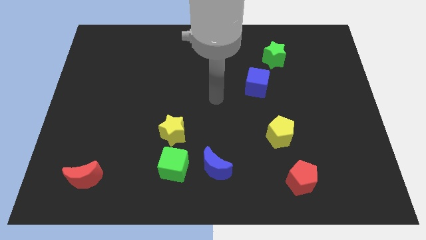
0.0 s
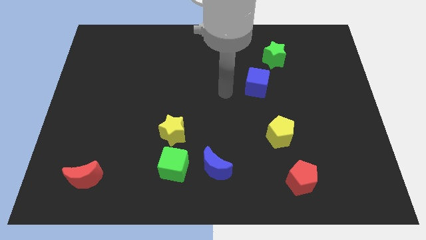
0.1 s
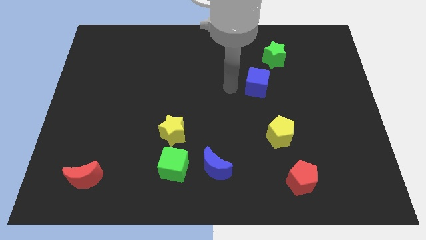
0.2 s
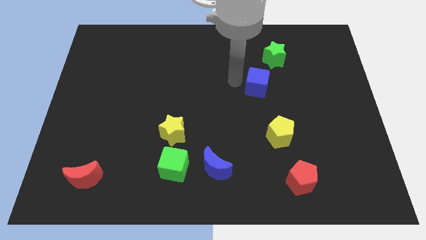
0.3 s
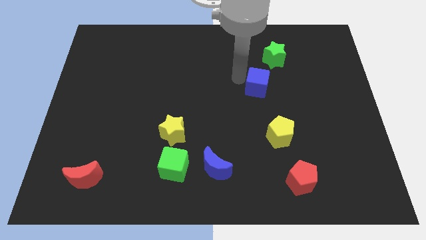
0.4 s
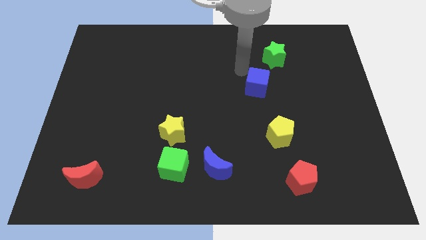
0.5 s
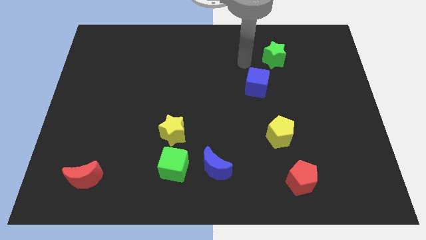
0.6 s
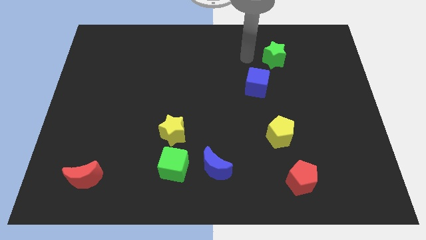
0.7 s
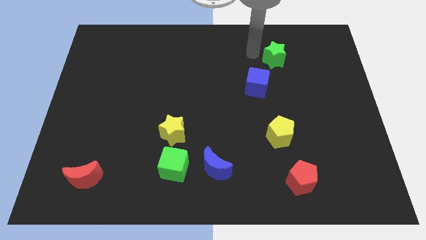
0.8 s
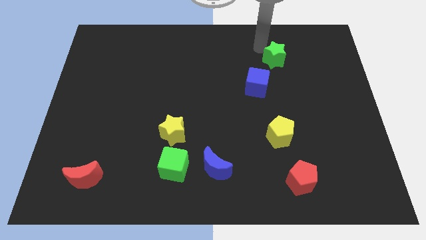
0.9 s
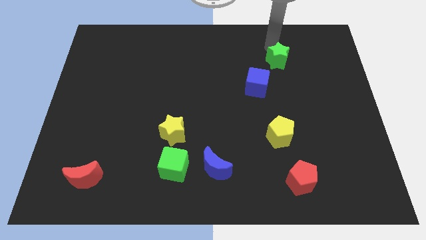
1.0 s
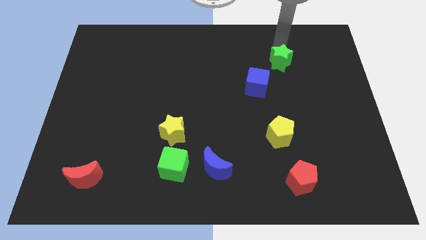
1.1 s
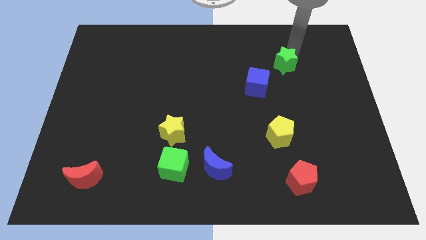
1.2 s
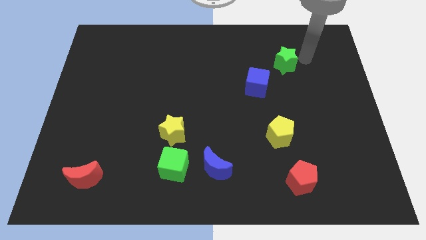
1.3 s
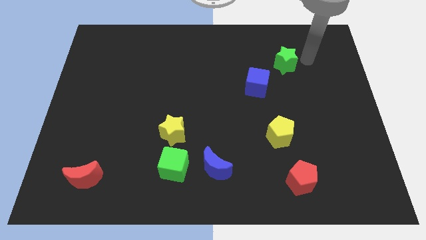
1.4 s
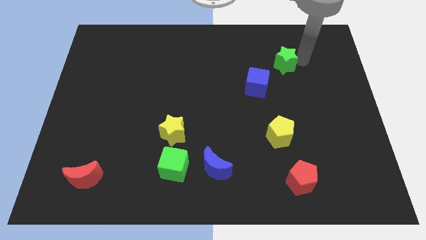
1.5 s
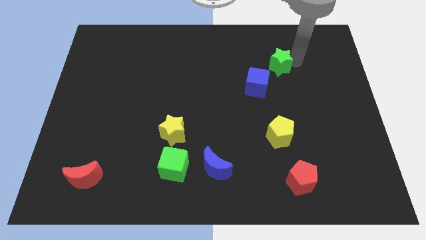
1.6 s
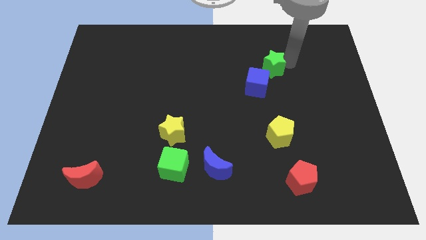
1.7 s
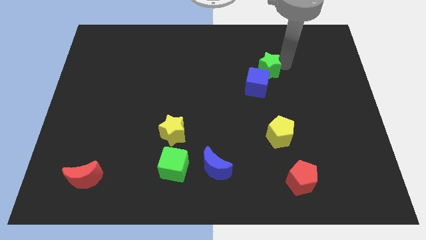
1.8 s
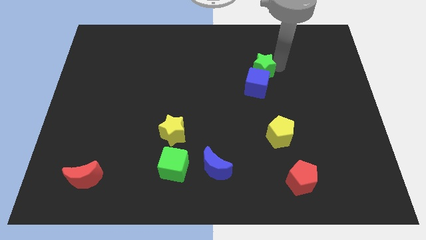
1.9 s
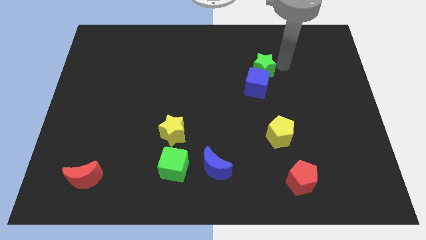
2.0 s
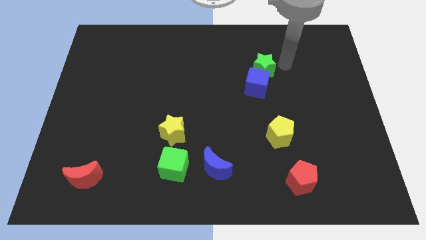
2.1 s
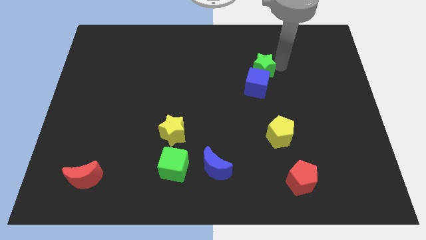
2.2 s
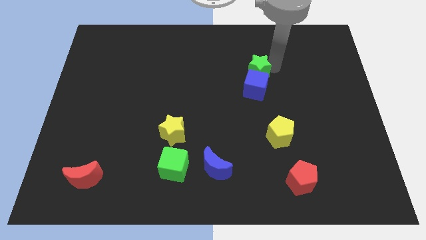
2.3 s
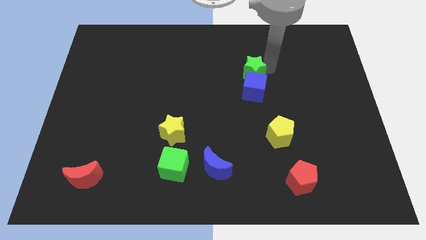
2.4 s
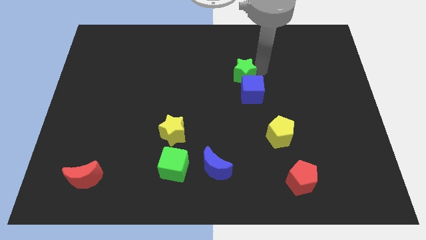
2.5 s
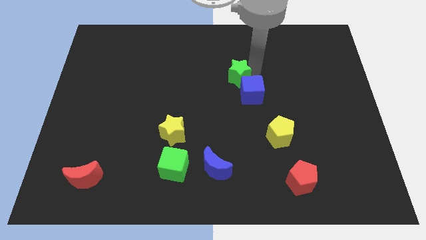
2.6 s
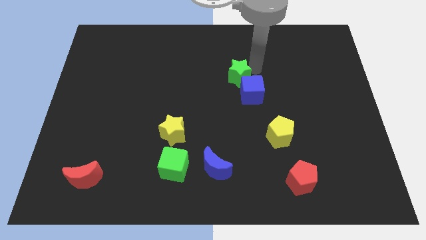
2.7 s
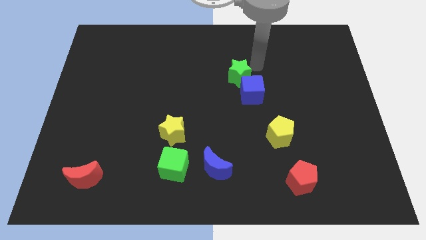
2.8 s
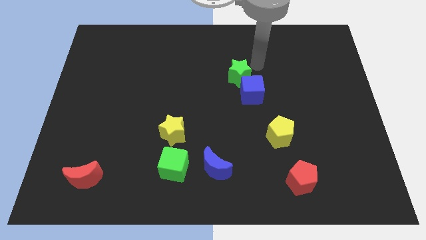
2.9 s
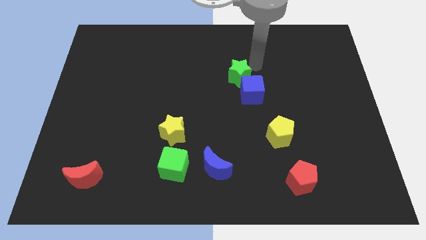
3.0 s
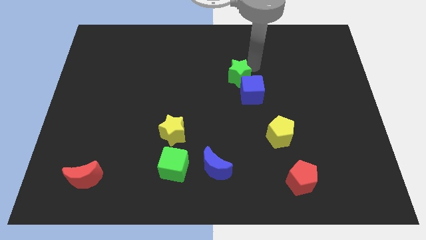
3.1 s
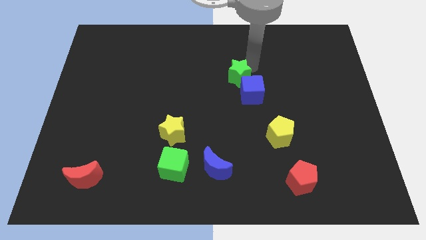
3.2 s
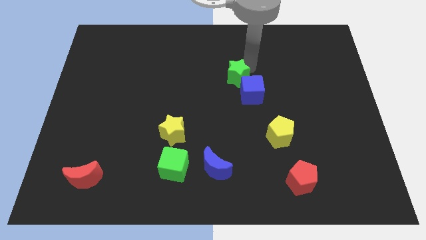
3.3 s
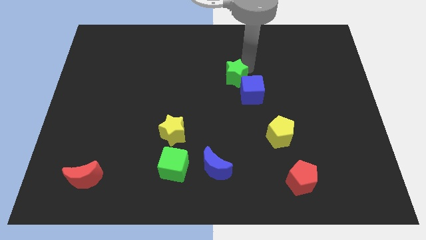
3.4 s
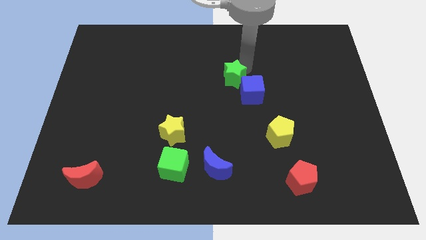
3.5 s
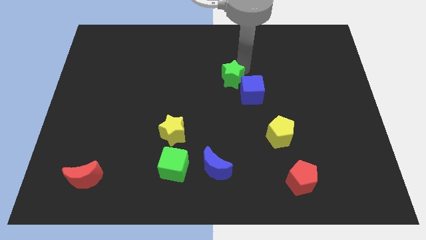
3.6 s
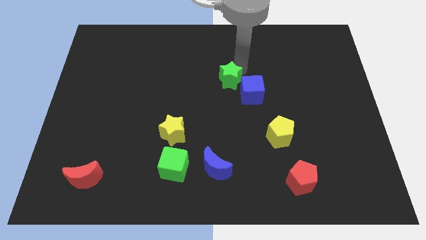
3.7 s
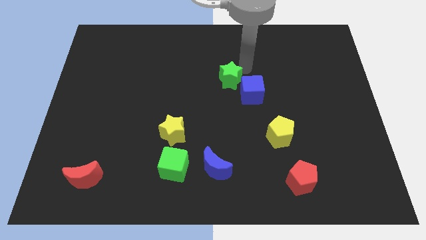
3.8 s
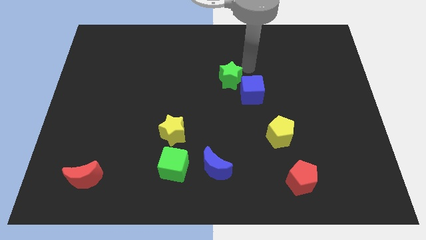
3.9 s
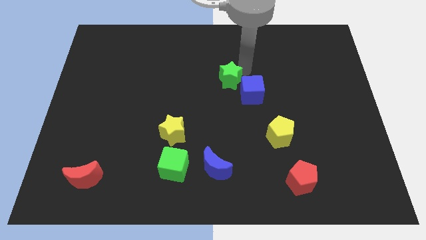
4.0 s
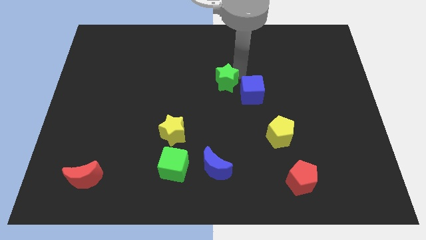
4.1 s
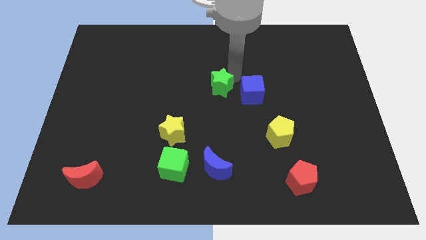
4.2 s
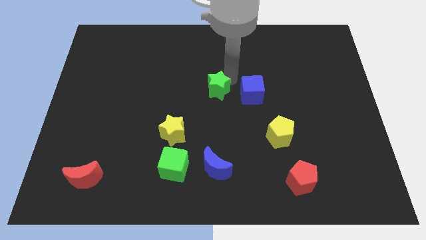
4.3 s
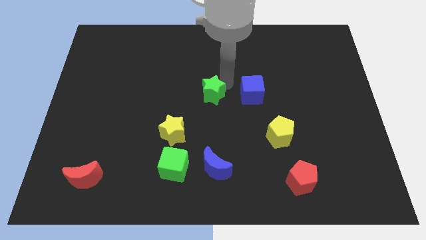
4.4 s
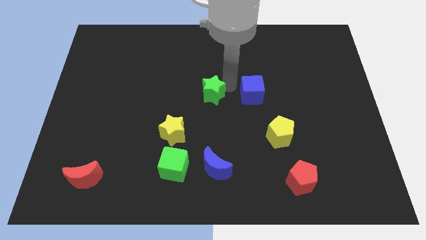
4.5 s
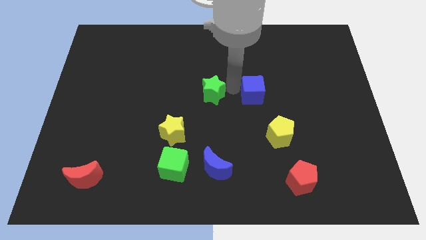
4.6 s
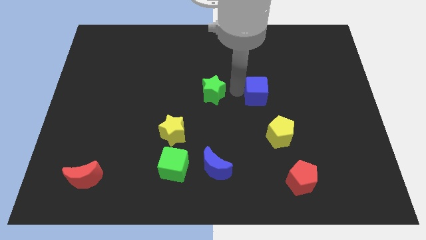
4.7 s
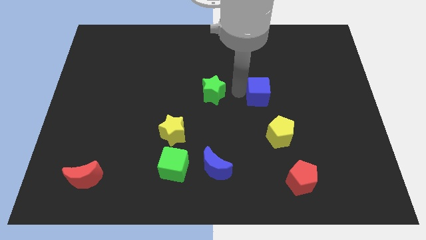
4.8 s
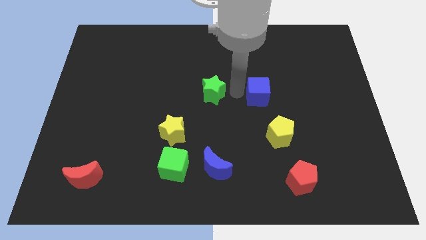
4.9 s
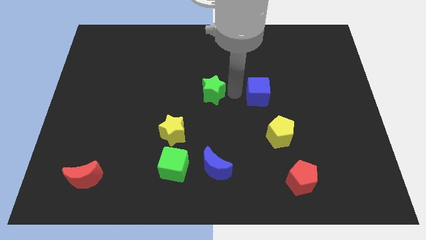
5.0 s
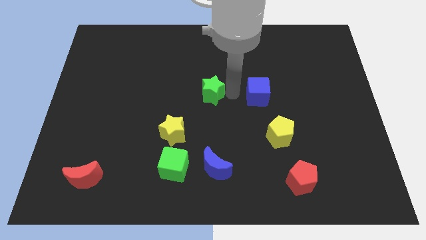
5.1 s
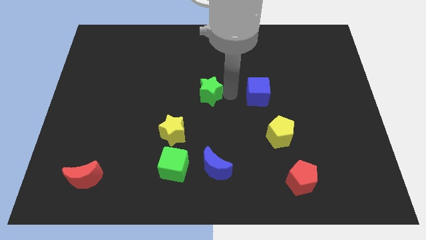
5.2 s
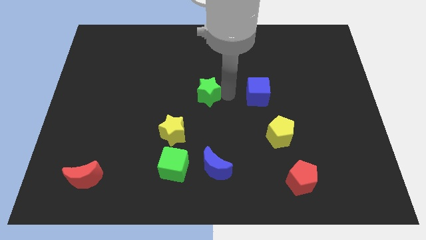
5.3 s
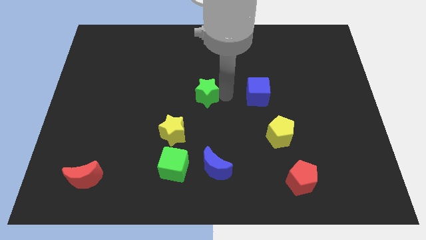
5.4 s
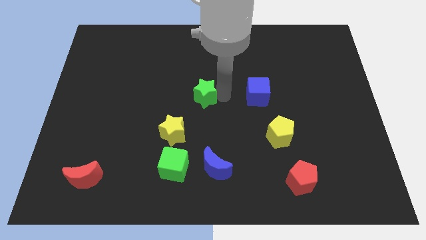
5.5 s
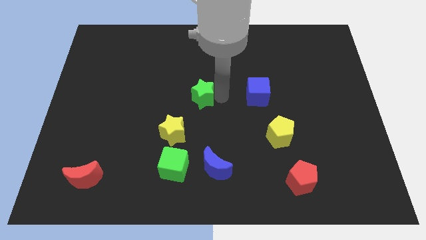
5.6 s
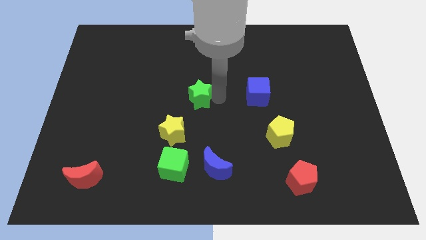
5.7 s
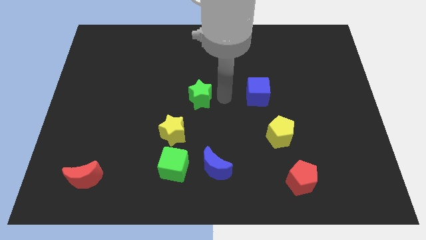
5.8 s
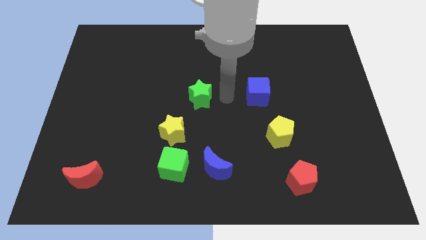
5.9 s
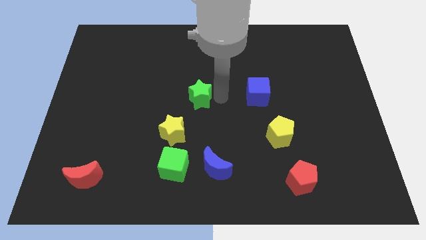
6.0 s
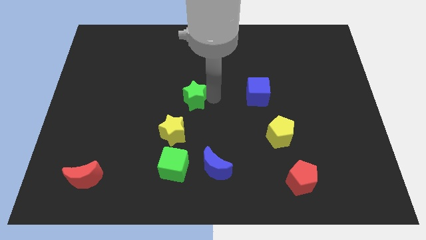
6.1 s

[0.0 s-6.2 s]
move the green star to the top of the yellow star

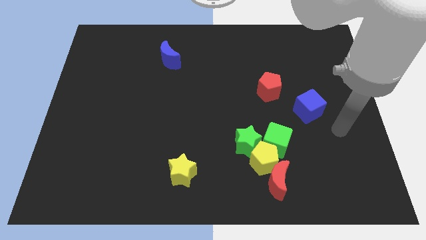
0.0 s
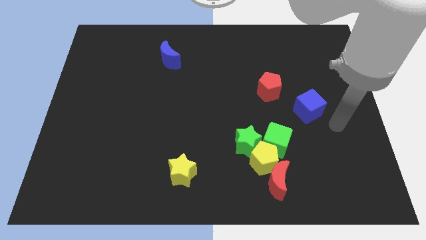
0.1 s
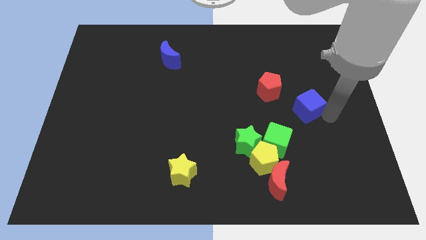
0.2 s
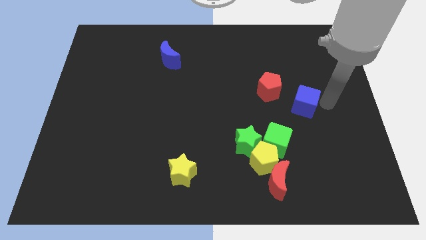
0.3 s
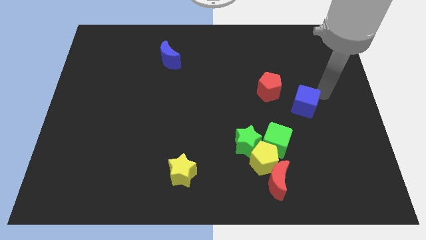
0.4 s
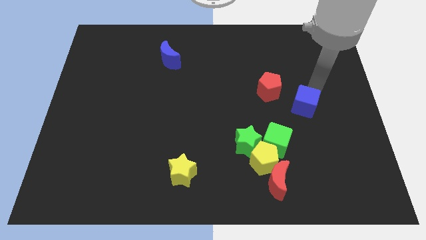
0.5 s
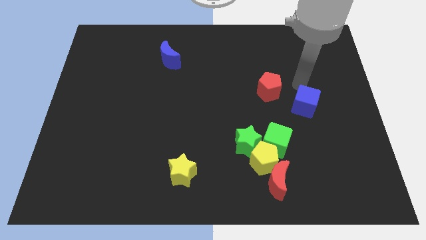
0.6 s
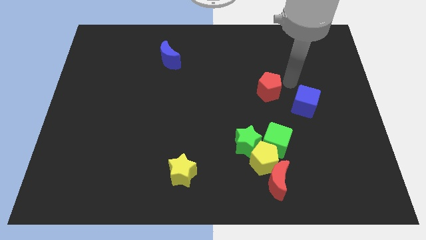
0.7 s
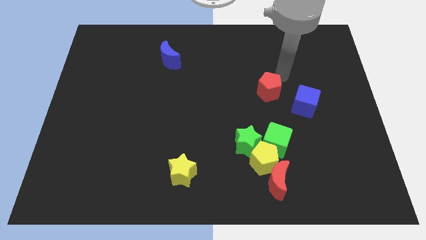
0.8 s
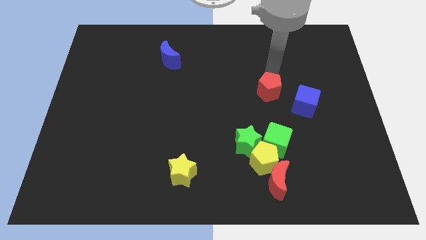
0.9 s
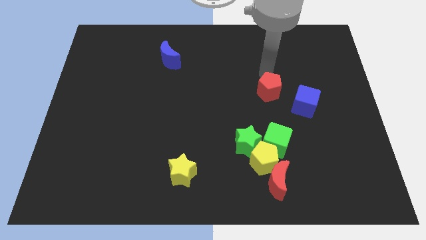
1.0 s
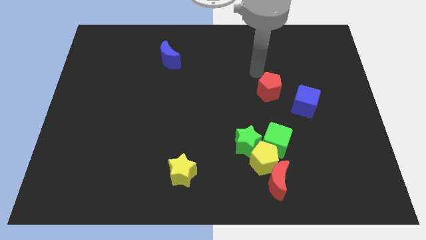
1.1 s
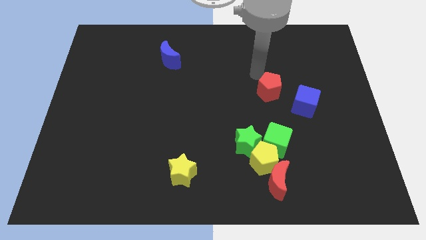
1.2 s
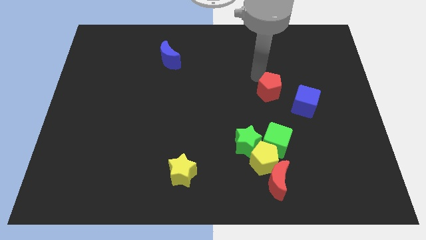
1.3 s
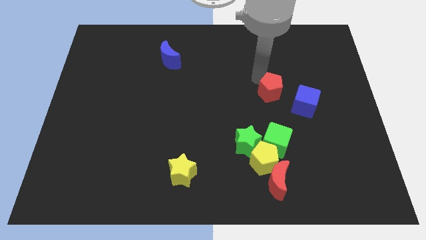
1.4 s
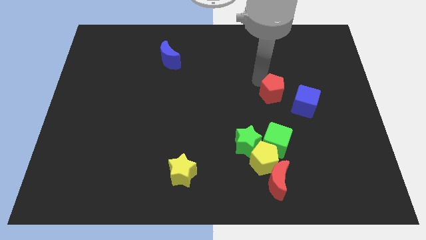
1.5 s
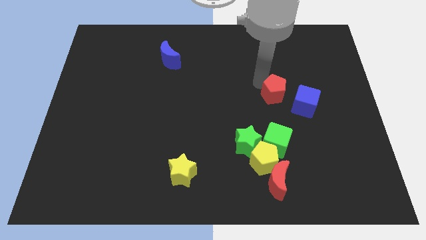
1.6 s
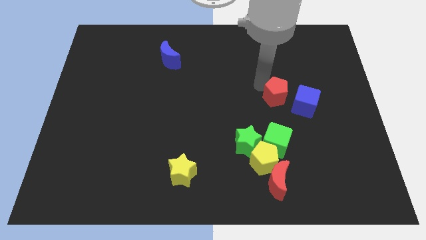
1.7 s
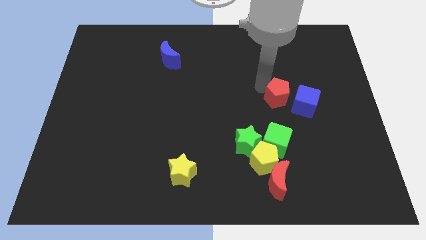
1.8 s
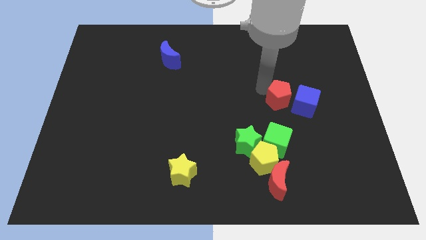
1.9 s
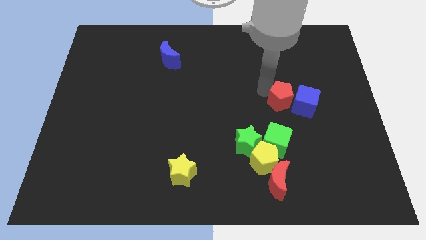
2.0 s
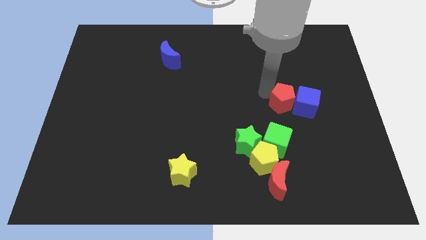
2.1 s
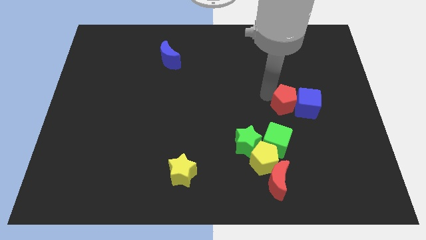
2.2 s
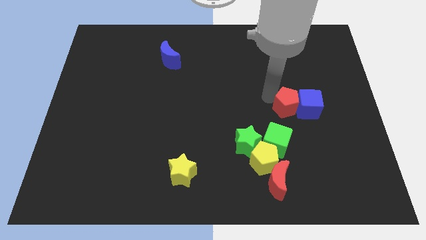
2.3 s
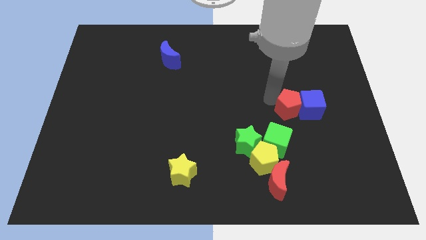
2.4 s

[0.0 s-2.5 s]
move the red pentagon to the top right side of the green cube
